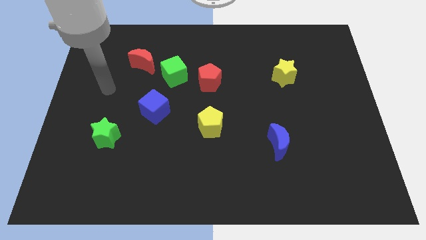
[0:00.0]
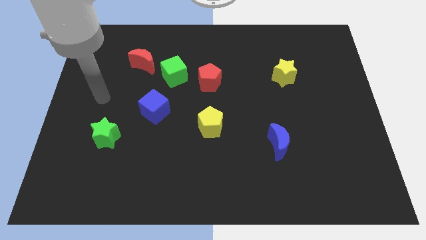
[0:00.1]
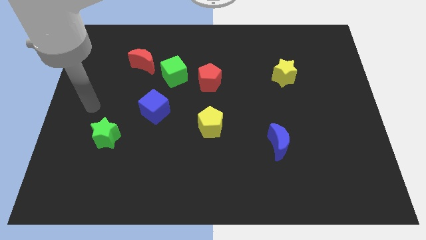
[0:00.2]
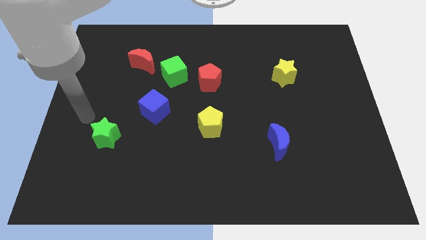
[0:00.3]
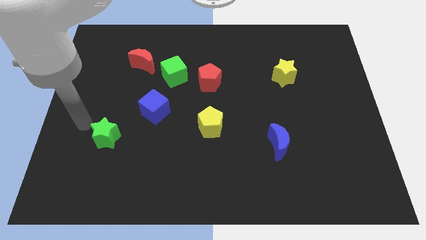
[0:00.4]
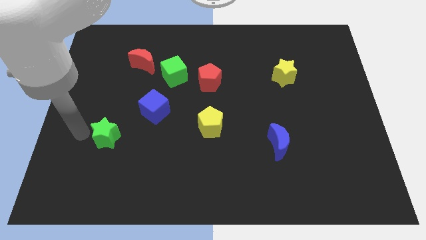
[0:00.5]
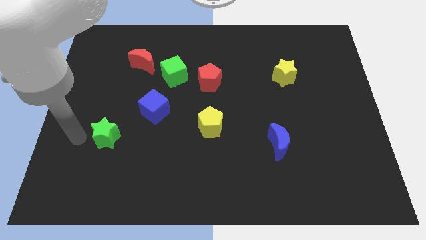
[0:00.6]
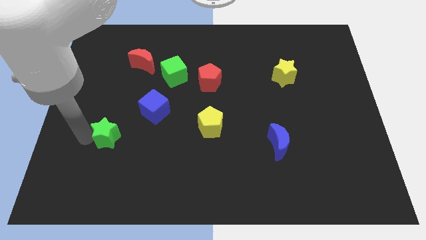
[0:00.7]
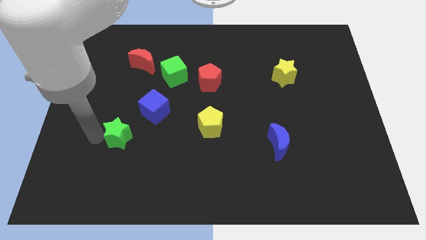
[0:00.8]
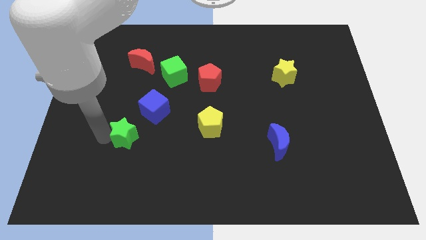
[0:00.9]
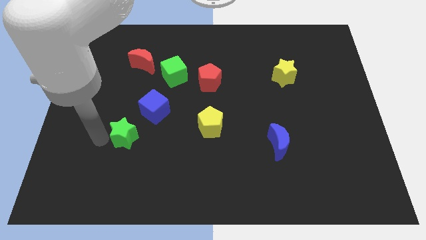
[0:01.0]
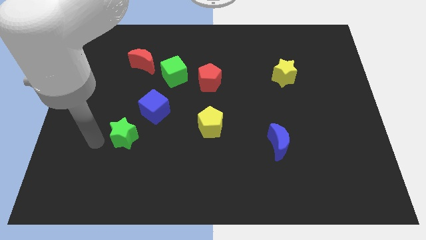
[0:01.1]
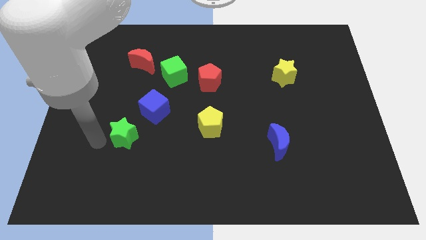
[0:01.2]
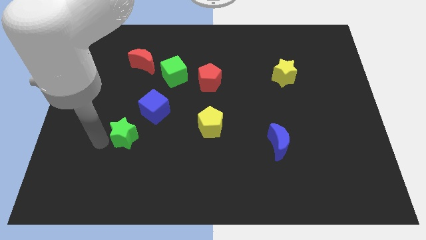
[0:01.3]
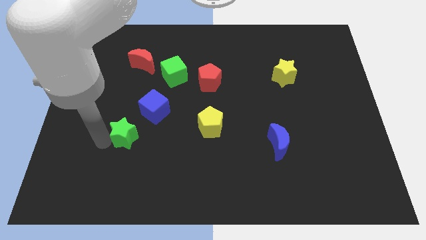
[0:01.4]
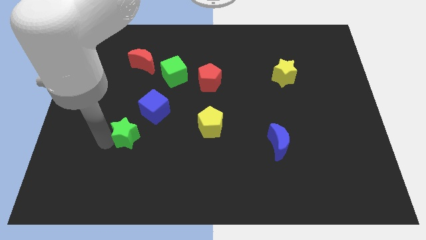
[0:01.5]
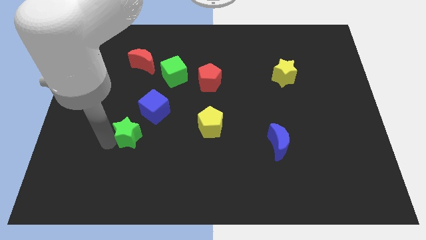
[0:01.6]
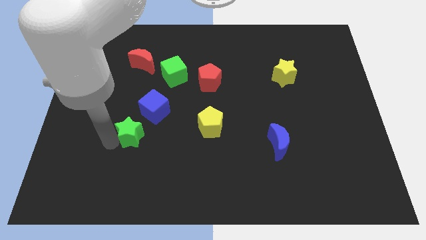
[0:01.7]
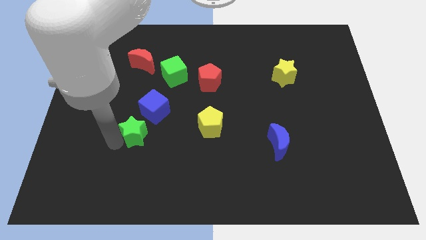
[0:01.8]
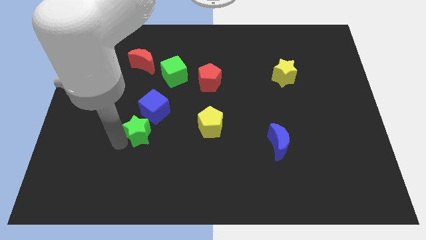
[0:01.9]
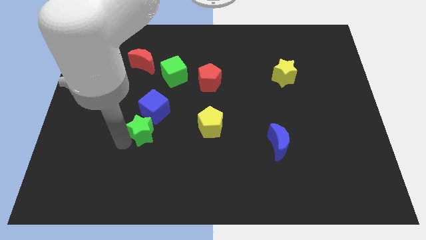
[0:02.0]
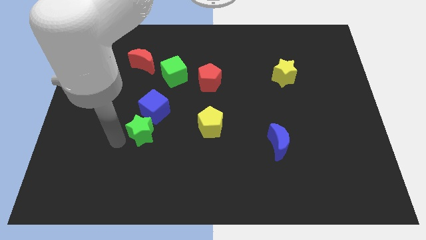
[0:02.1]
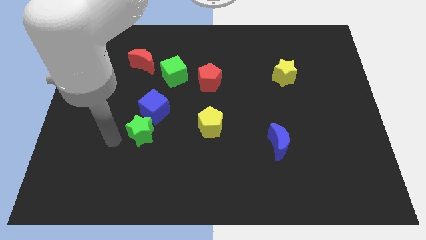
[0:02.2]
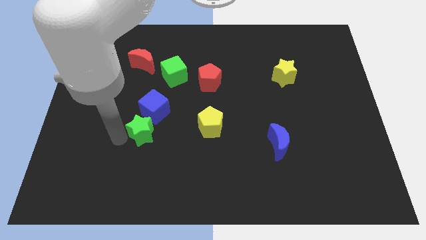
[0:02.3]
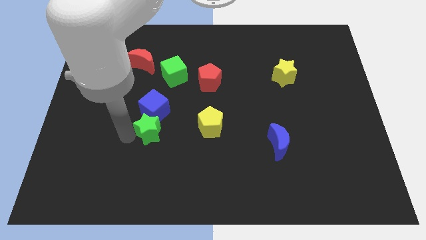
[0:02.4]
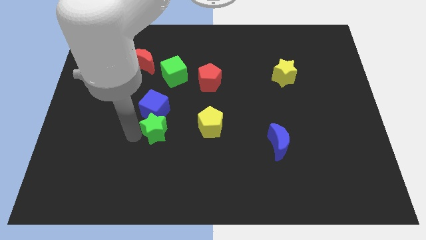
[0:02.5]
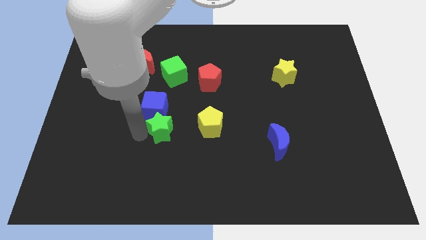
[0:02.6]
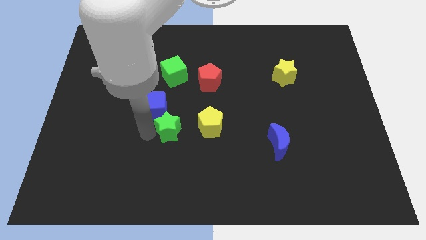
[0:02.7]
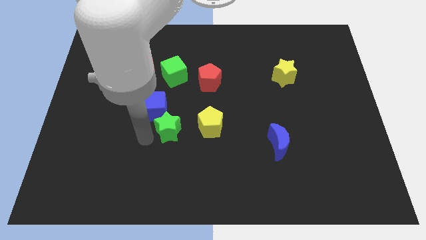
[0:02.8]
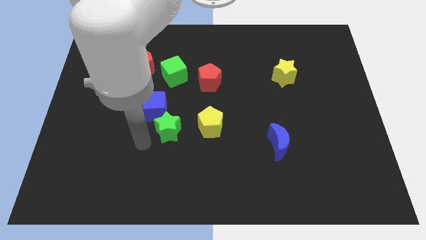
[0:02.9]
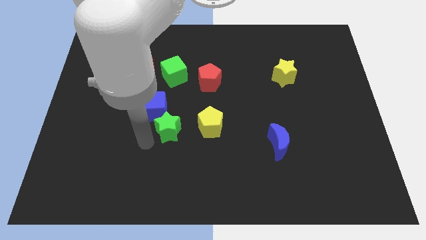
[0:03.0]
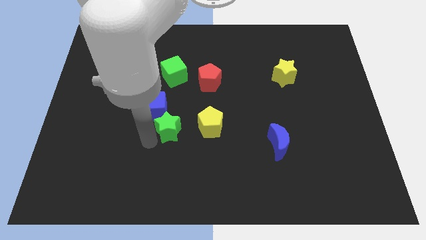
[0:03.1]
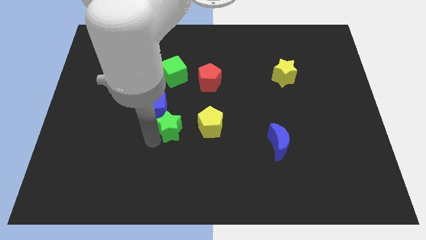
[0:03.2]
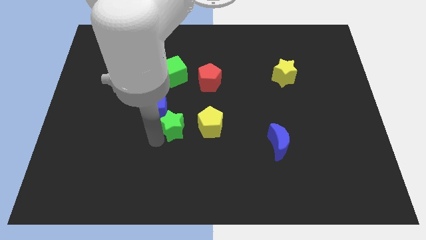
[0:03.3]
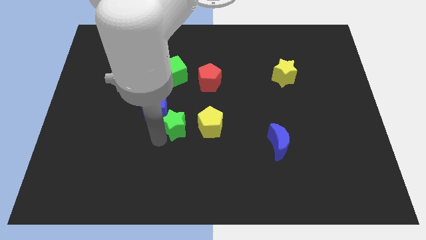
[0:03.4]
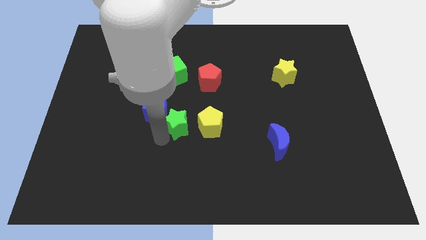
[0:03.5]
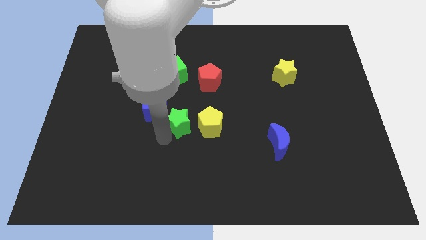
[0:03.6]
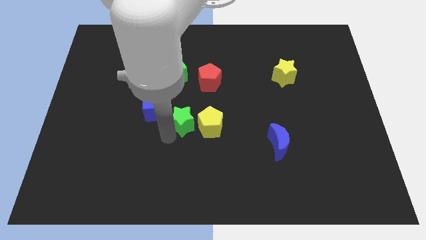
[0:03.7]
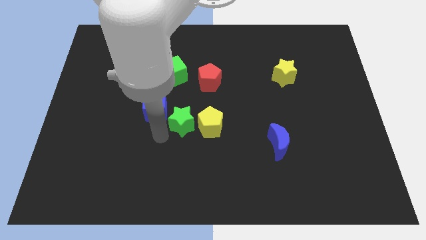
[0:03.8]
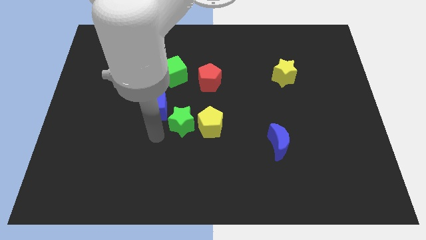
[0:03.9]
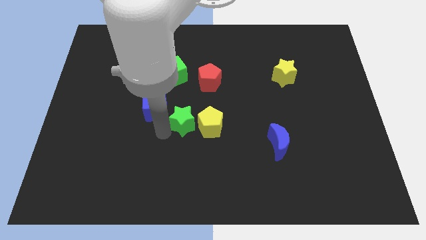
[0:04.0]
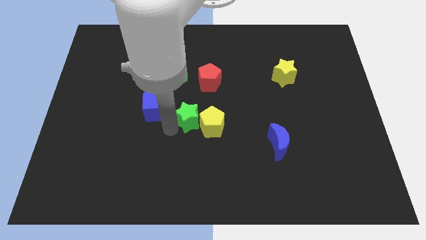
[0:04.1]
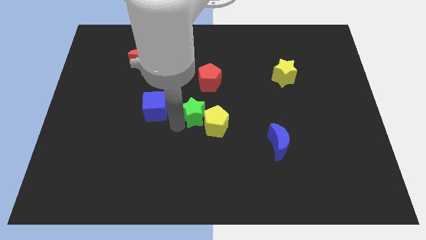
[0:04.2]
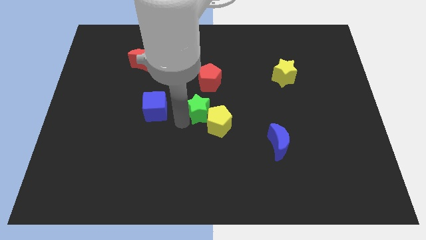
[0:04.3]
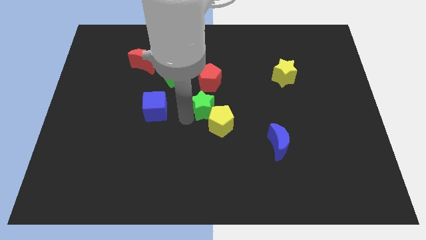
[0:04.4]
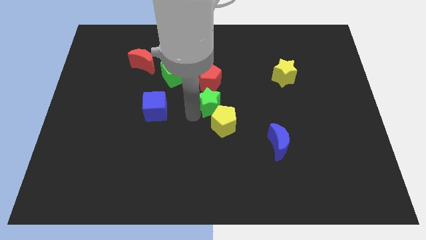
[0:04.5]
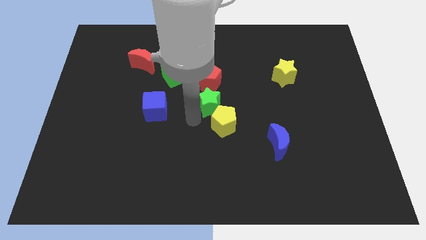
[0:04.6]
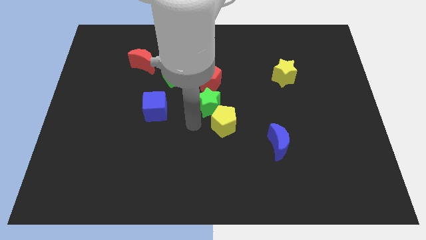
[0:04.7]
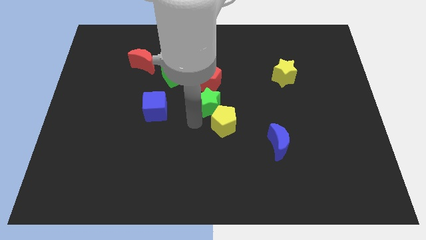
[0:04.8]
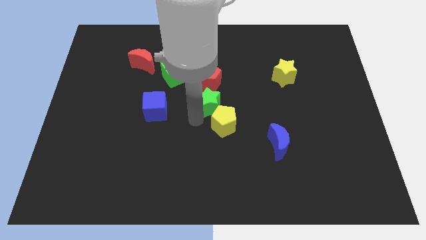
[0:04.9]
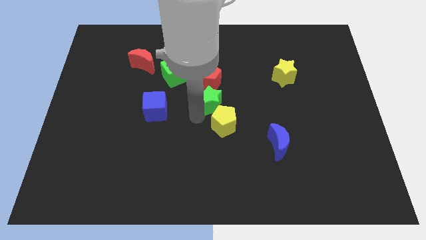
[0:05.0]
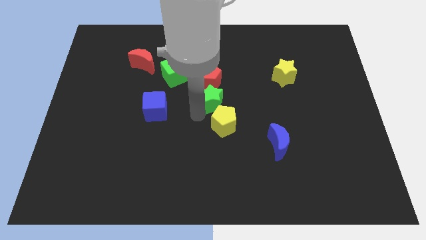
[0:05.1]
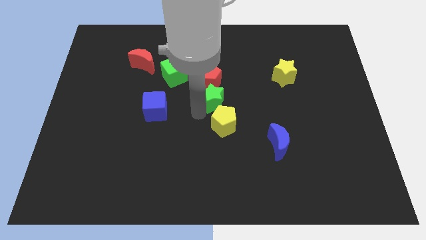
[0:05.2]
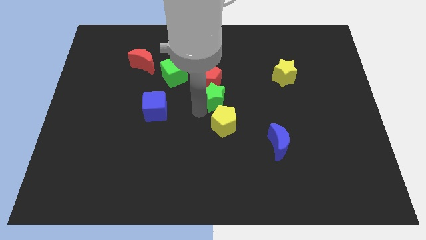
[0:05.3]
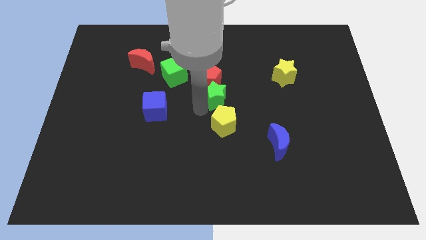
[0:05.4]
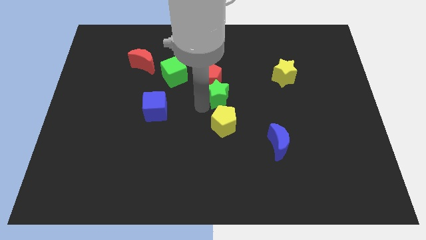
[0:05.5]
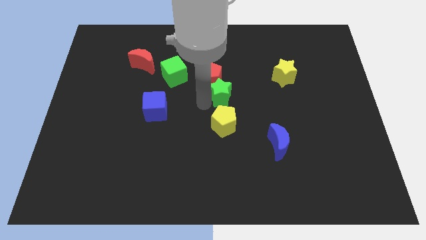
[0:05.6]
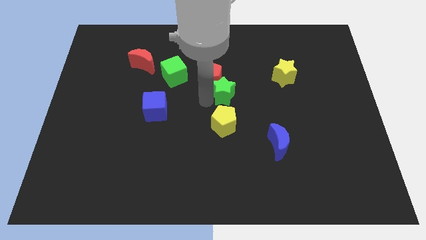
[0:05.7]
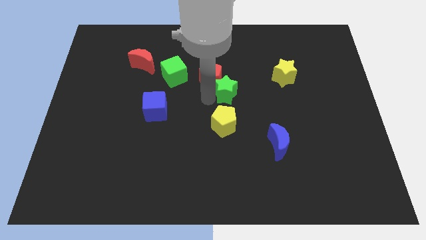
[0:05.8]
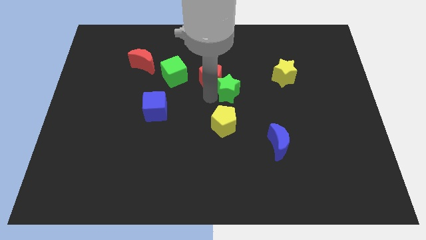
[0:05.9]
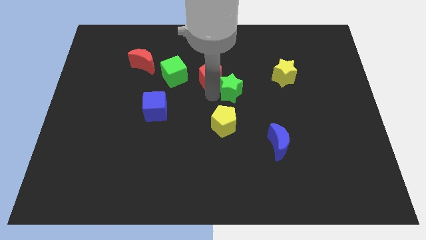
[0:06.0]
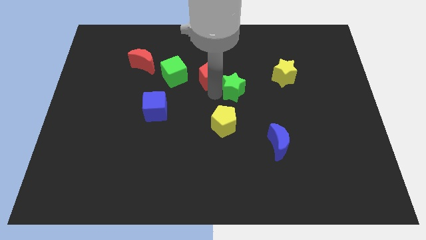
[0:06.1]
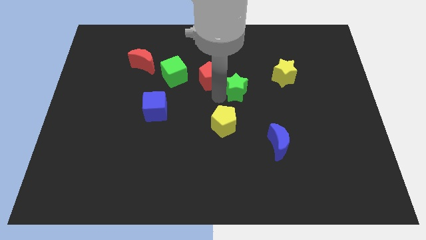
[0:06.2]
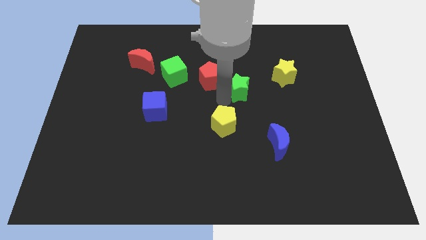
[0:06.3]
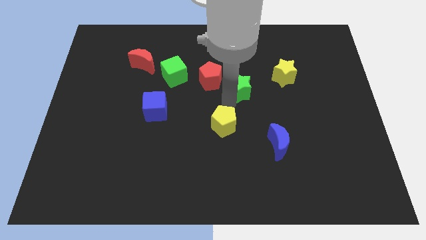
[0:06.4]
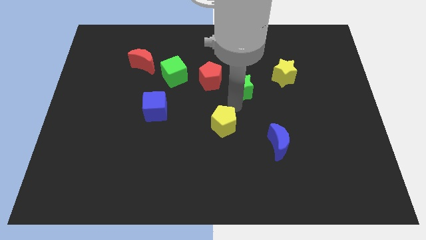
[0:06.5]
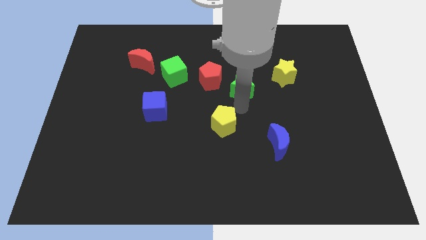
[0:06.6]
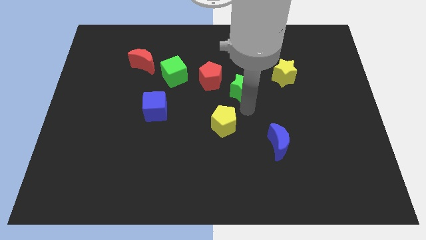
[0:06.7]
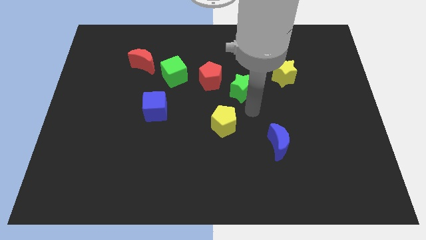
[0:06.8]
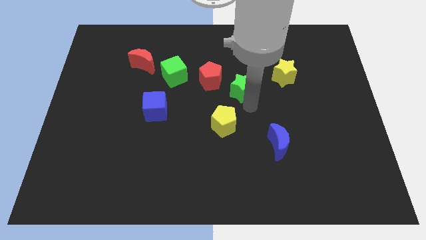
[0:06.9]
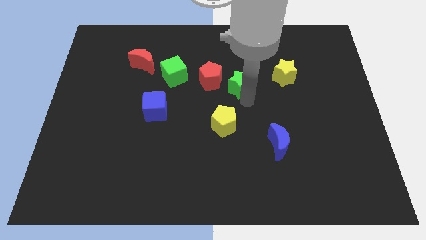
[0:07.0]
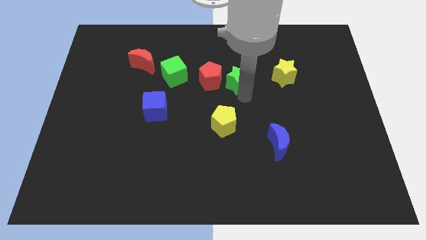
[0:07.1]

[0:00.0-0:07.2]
slide the green star just right of the green cube
